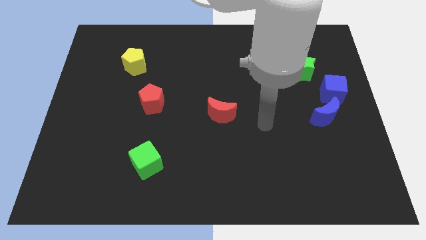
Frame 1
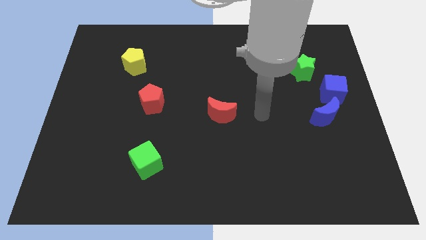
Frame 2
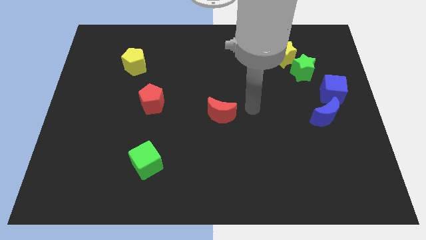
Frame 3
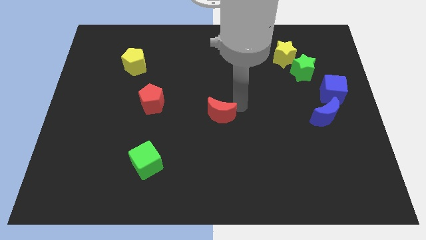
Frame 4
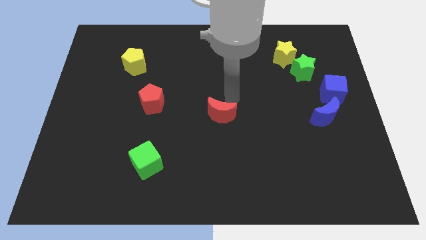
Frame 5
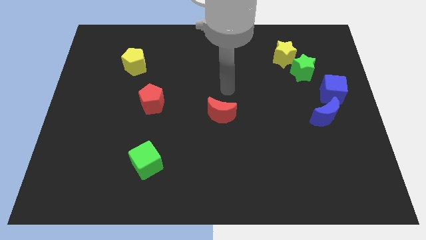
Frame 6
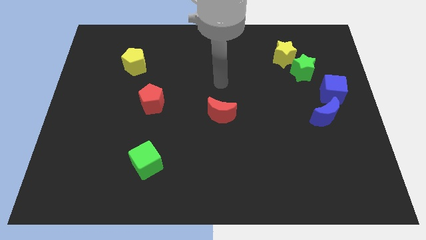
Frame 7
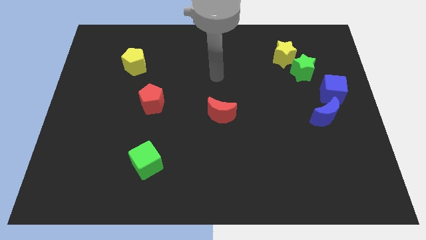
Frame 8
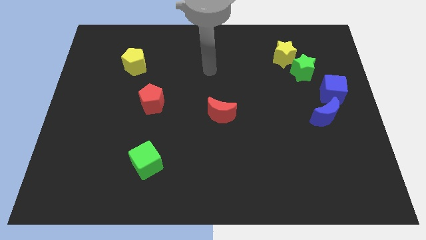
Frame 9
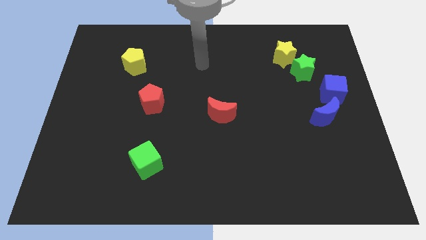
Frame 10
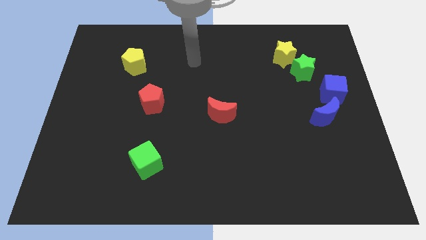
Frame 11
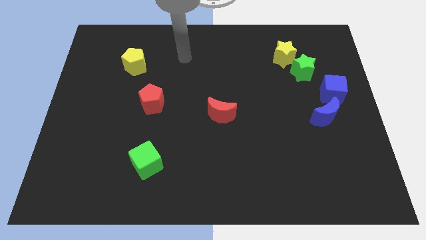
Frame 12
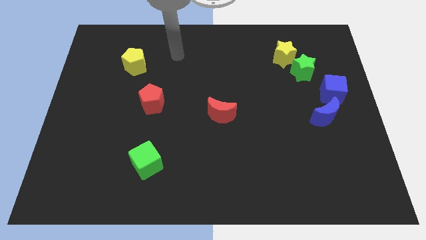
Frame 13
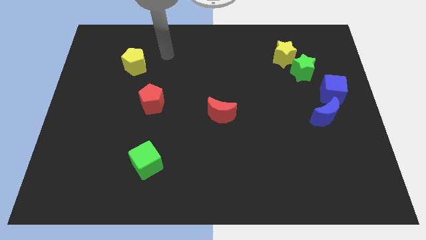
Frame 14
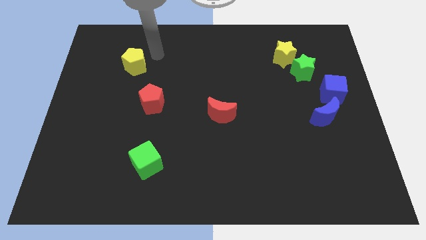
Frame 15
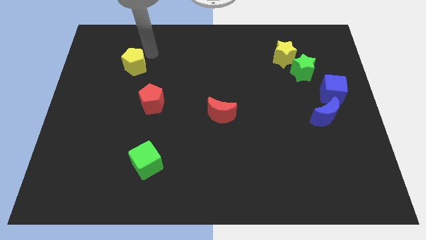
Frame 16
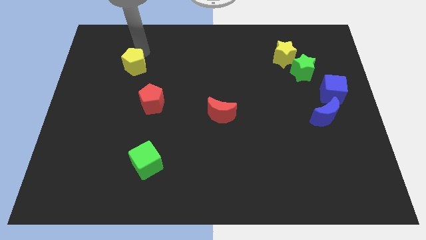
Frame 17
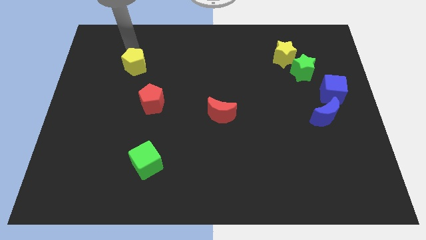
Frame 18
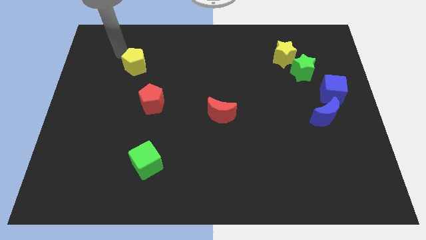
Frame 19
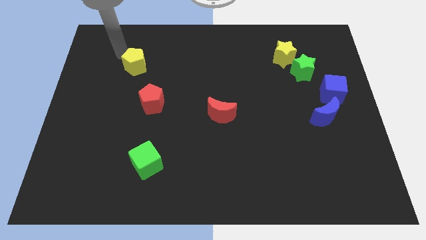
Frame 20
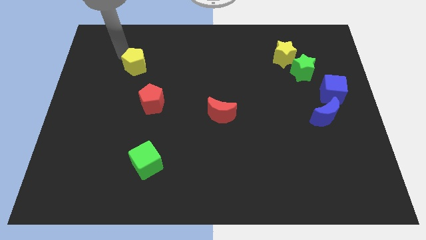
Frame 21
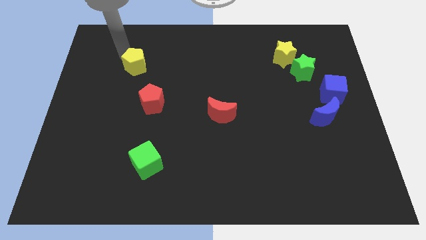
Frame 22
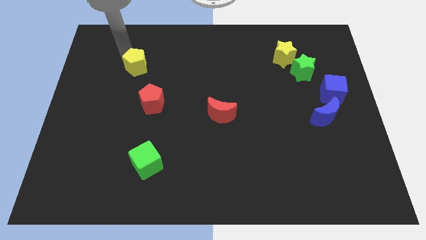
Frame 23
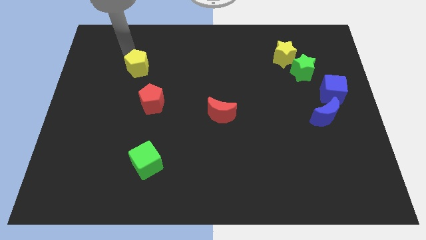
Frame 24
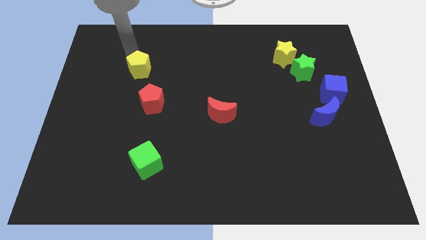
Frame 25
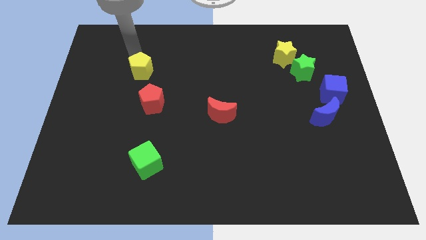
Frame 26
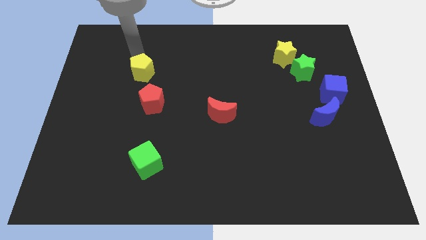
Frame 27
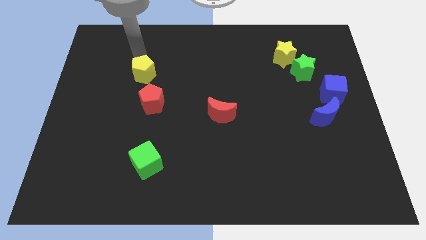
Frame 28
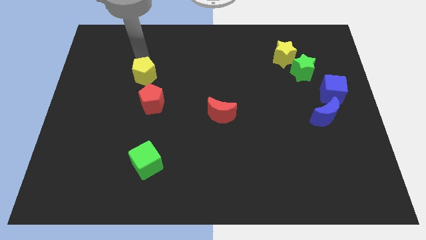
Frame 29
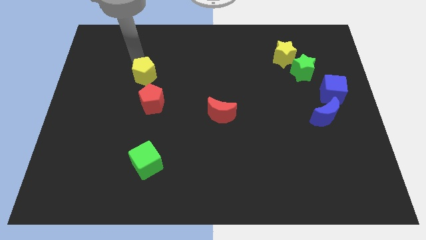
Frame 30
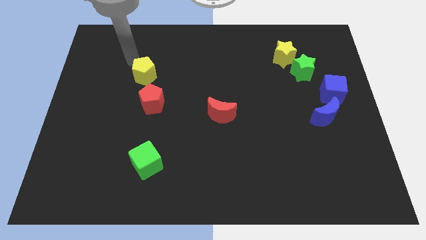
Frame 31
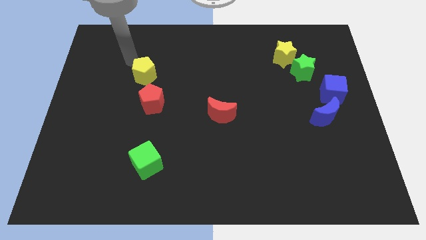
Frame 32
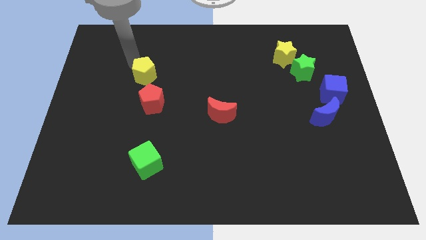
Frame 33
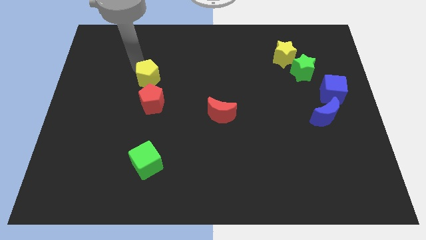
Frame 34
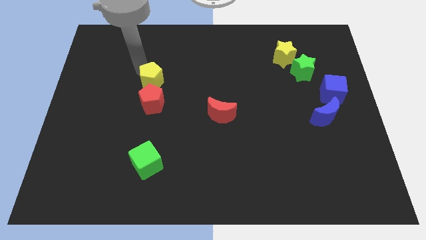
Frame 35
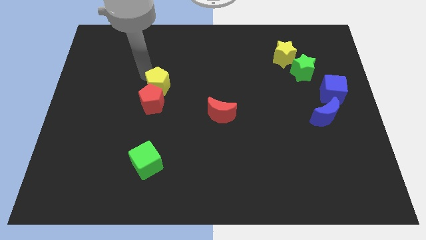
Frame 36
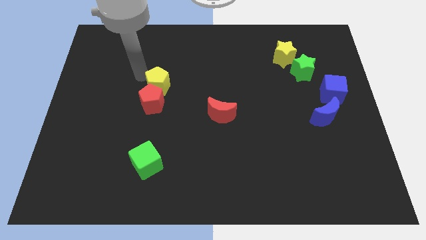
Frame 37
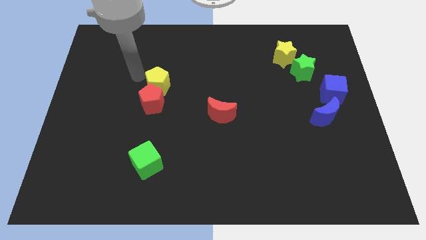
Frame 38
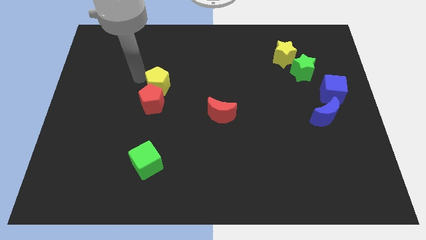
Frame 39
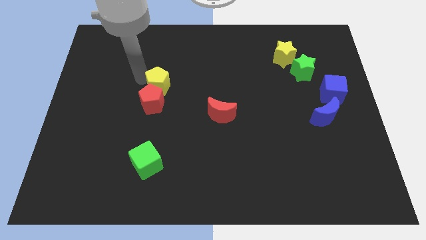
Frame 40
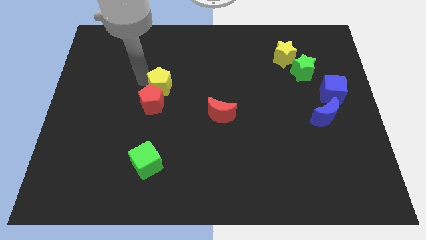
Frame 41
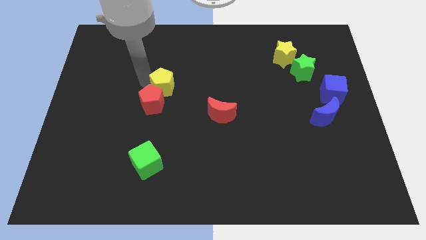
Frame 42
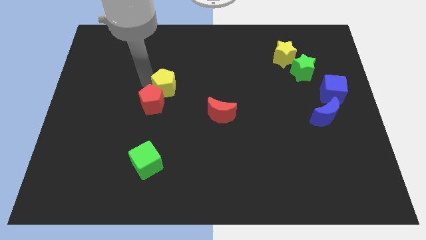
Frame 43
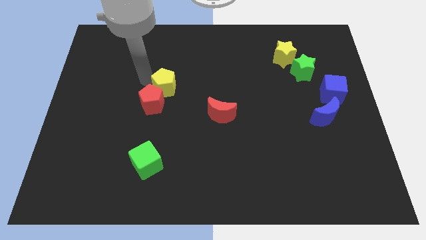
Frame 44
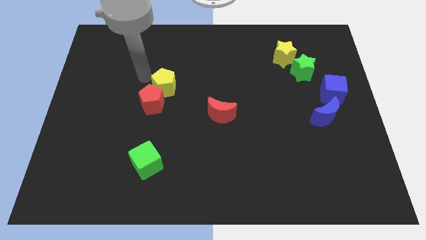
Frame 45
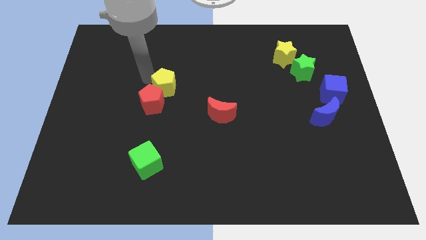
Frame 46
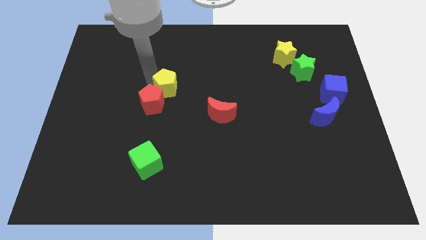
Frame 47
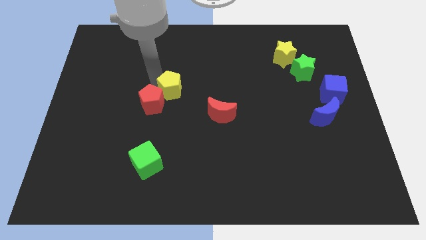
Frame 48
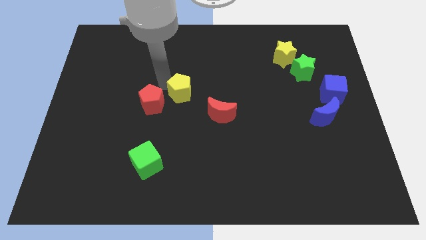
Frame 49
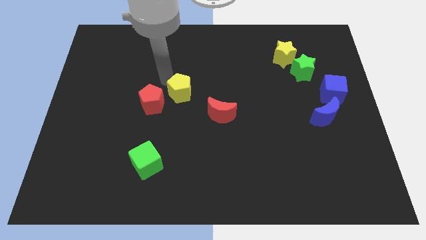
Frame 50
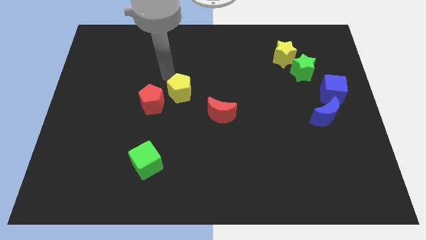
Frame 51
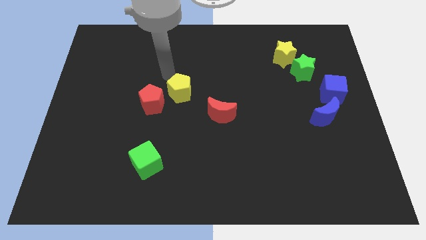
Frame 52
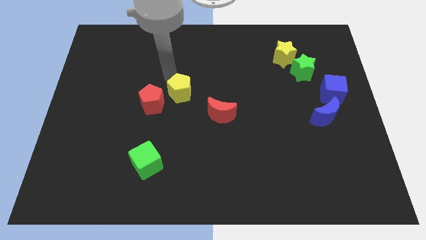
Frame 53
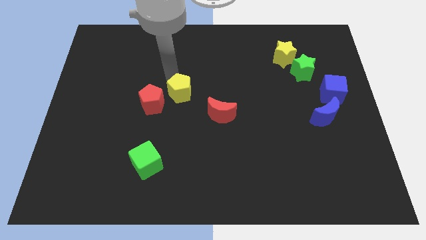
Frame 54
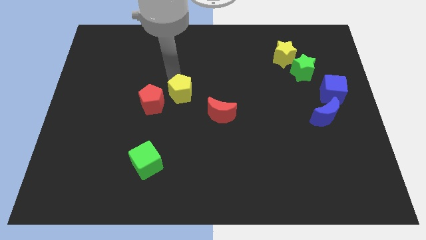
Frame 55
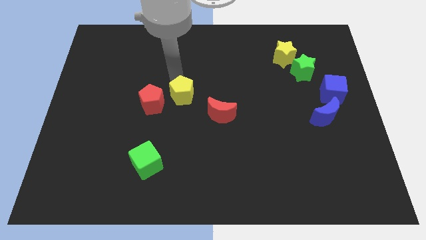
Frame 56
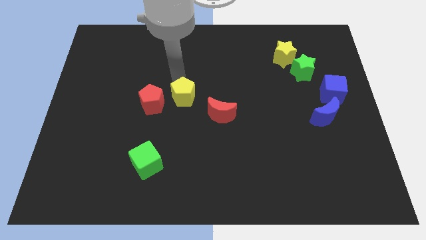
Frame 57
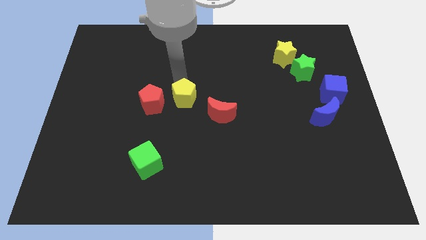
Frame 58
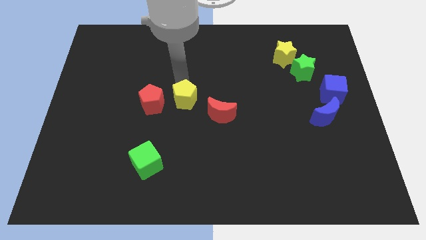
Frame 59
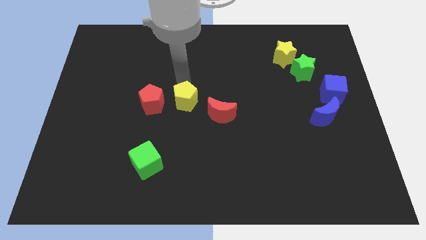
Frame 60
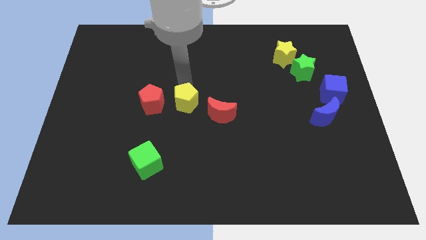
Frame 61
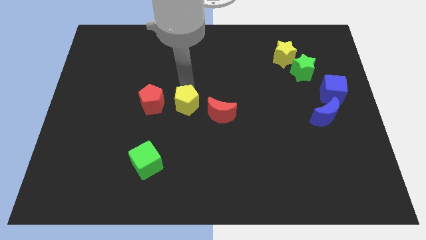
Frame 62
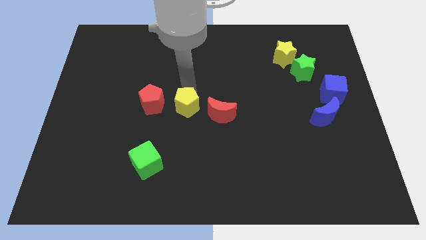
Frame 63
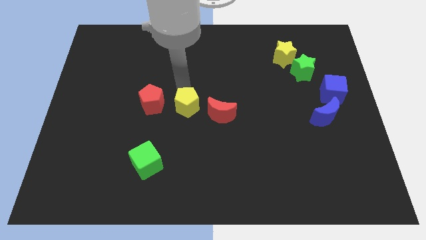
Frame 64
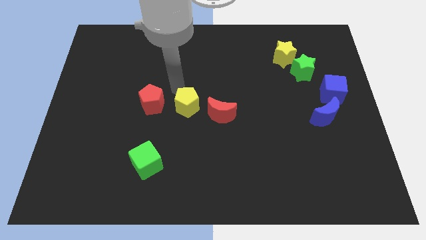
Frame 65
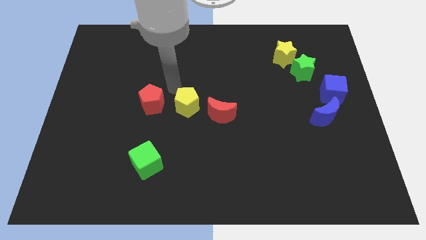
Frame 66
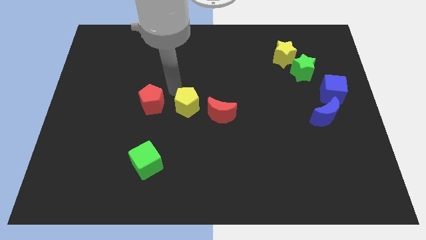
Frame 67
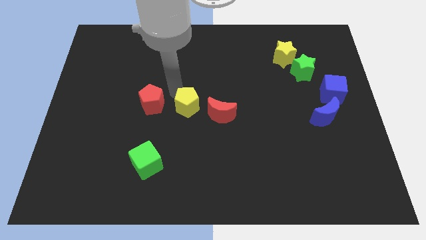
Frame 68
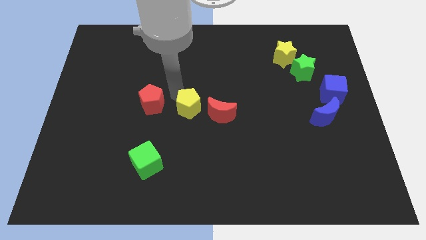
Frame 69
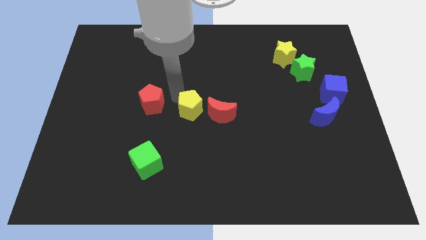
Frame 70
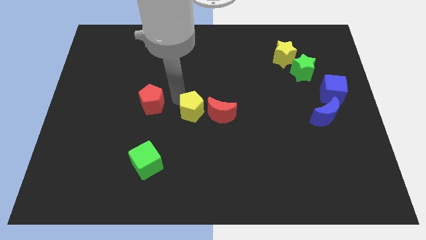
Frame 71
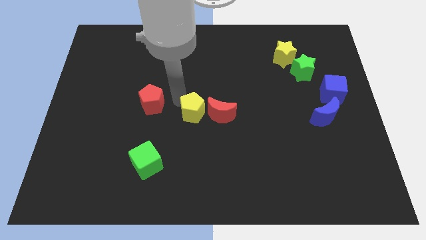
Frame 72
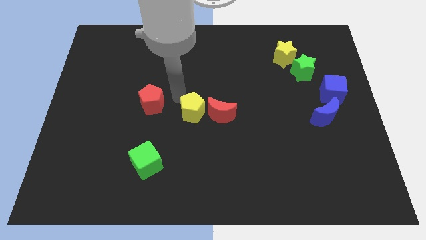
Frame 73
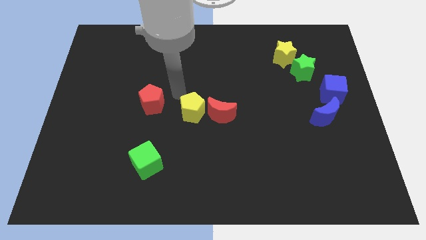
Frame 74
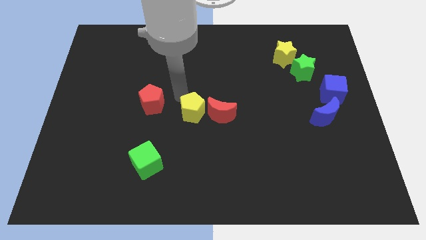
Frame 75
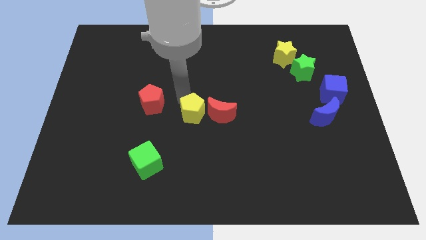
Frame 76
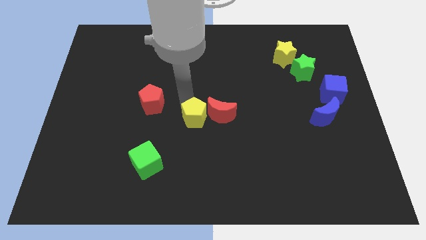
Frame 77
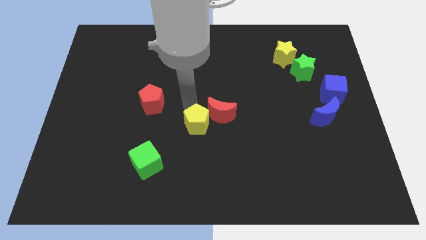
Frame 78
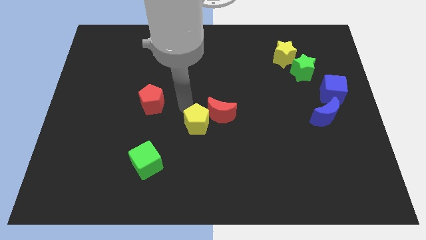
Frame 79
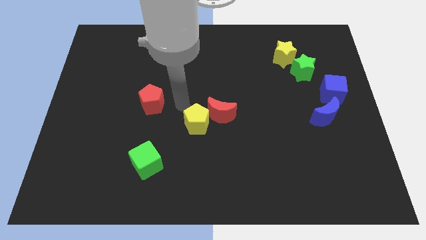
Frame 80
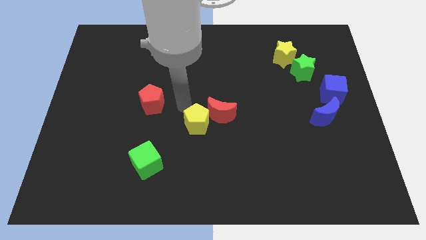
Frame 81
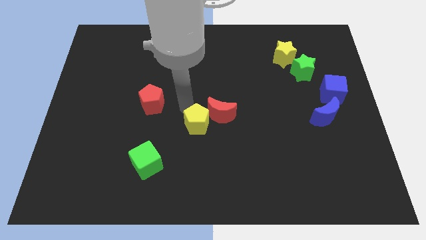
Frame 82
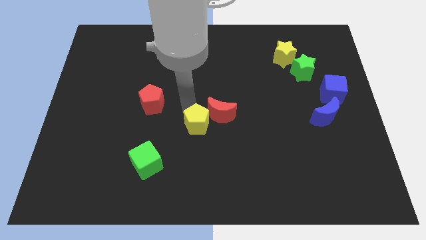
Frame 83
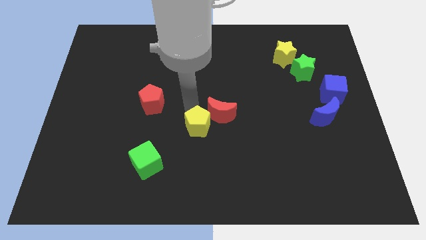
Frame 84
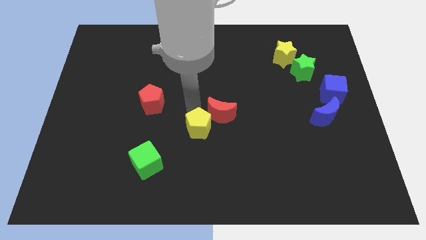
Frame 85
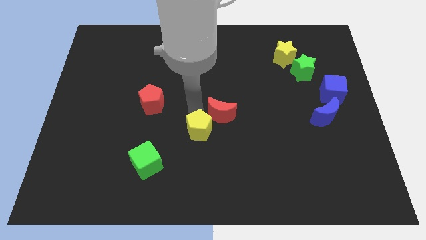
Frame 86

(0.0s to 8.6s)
move the yellow pentagon to the bottom side of the red moon
